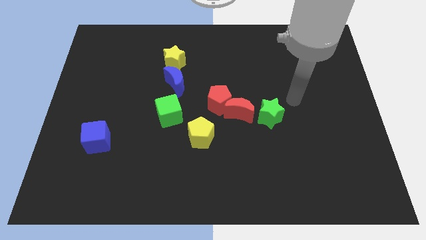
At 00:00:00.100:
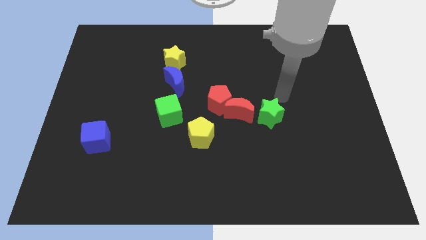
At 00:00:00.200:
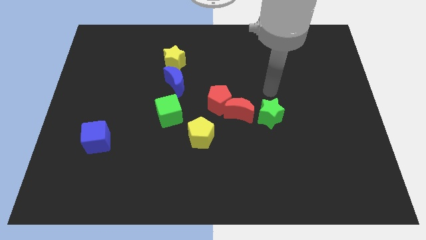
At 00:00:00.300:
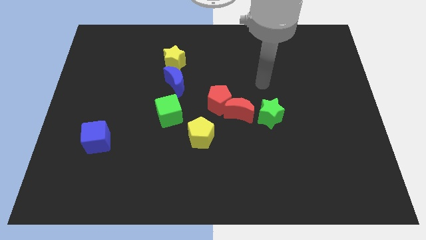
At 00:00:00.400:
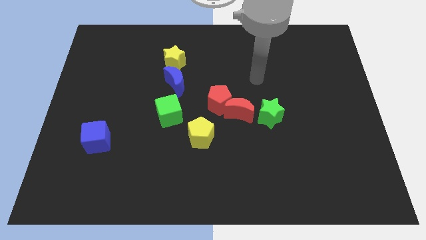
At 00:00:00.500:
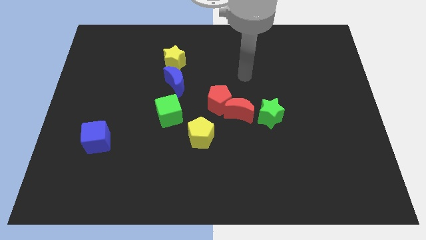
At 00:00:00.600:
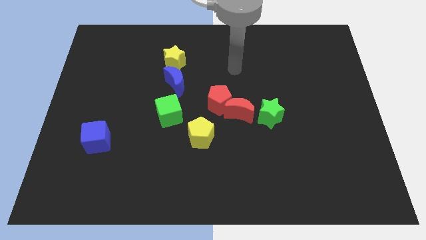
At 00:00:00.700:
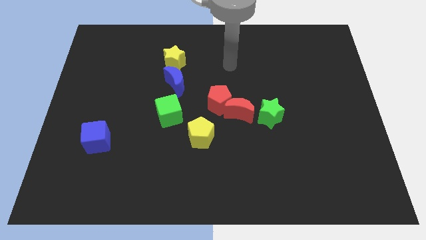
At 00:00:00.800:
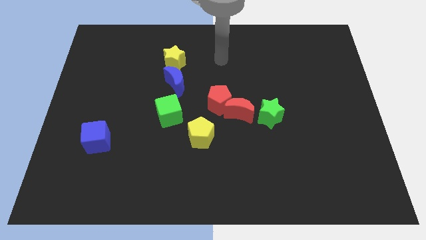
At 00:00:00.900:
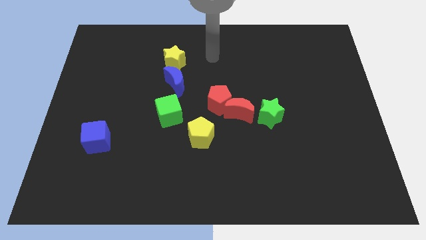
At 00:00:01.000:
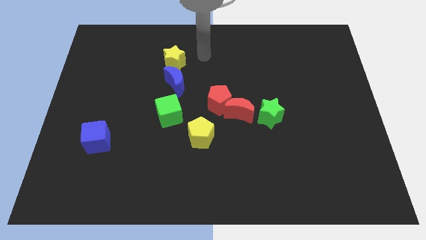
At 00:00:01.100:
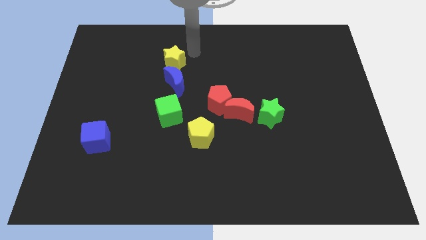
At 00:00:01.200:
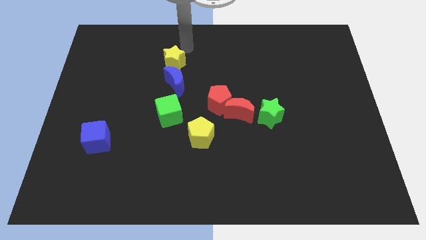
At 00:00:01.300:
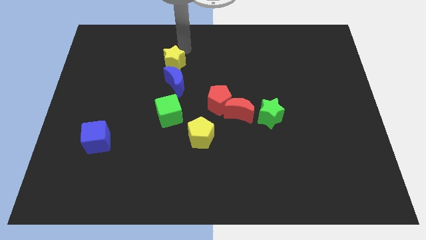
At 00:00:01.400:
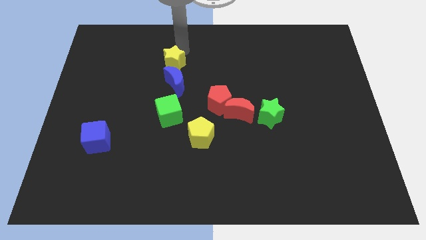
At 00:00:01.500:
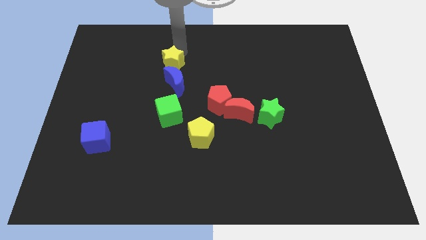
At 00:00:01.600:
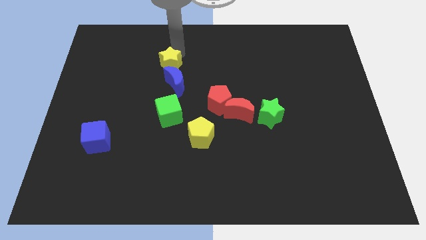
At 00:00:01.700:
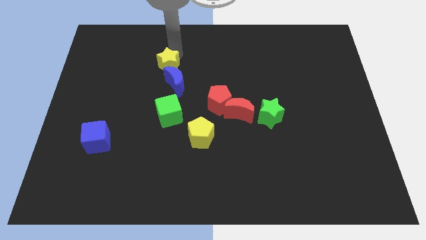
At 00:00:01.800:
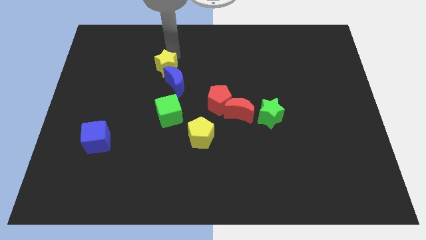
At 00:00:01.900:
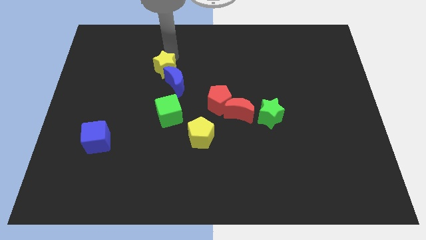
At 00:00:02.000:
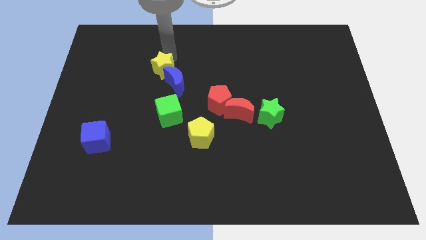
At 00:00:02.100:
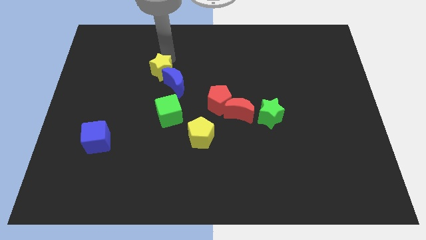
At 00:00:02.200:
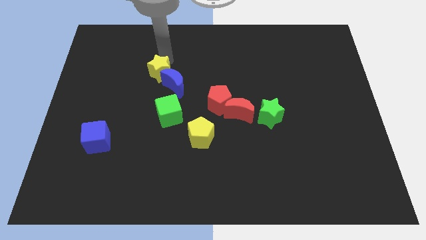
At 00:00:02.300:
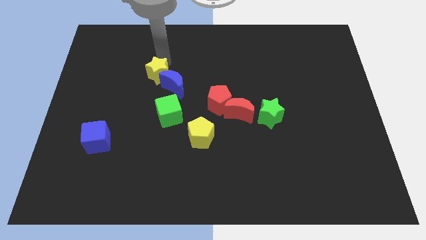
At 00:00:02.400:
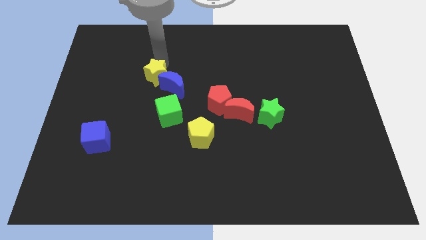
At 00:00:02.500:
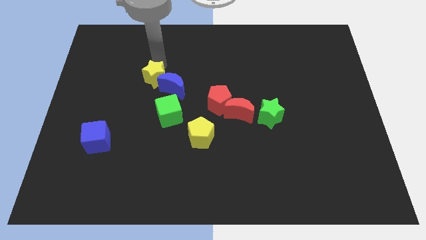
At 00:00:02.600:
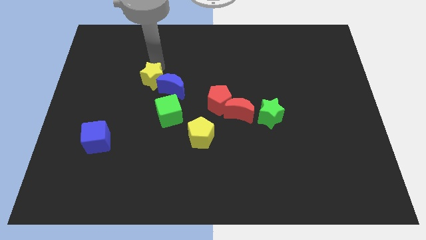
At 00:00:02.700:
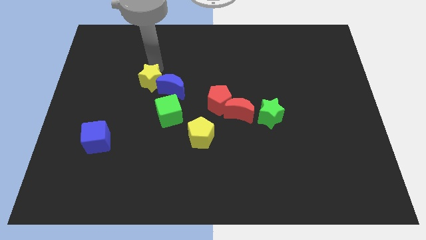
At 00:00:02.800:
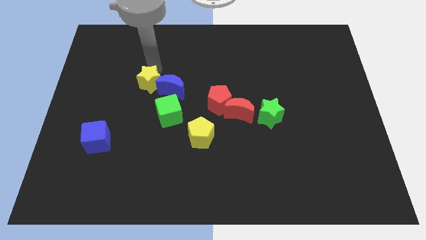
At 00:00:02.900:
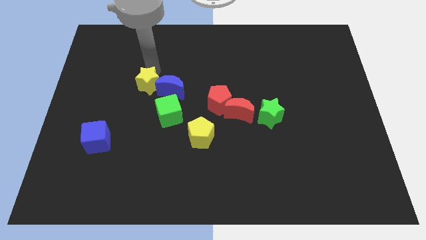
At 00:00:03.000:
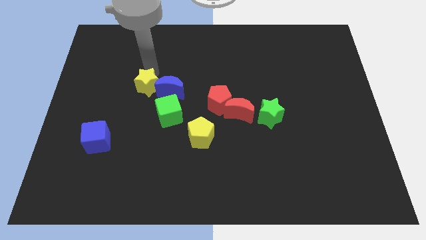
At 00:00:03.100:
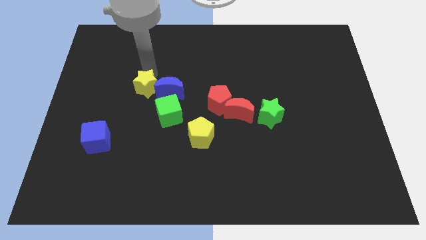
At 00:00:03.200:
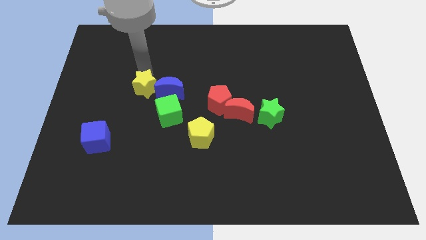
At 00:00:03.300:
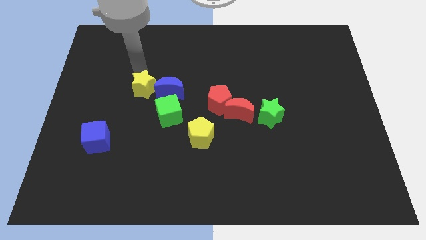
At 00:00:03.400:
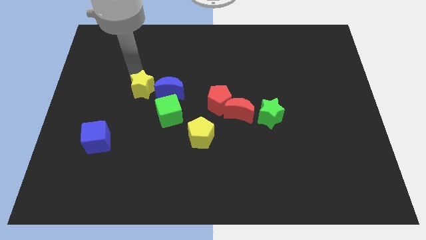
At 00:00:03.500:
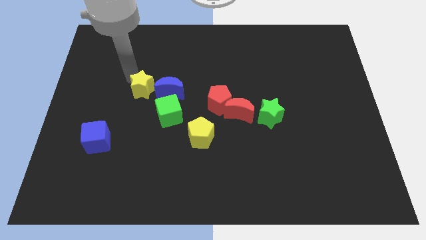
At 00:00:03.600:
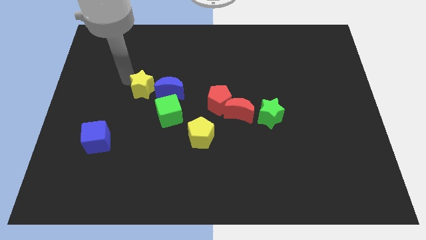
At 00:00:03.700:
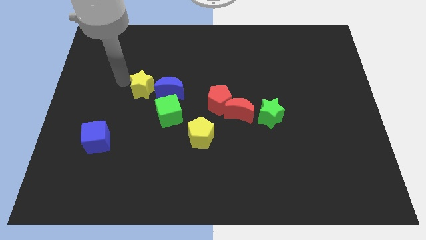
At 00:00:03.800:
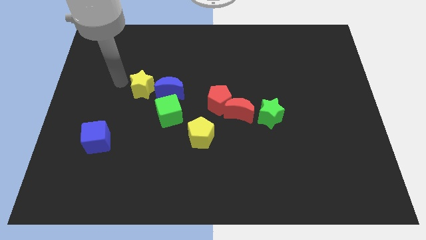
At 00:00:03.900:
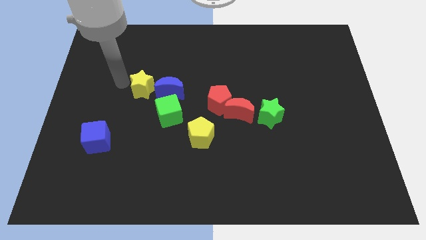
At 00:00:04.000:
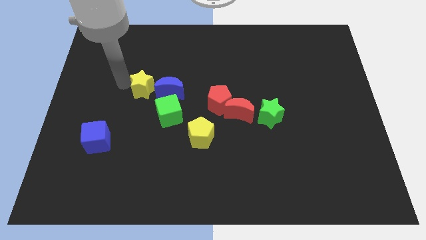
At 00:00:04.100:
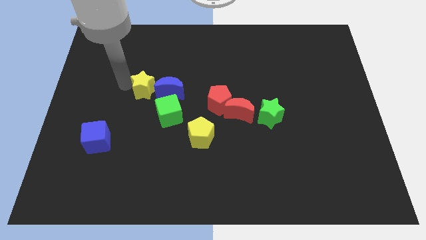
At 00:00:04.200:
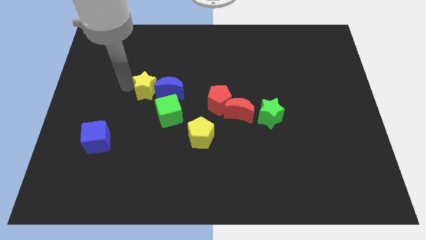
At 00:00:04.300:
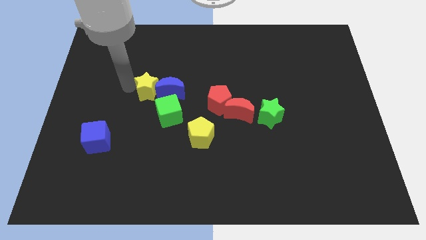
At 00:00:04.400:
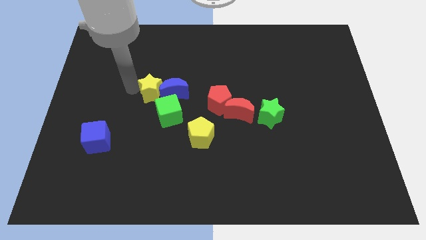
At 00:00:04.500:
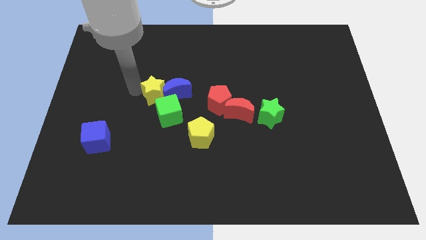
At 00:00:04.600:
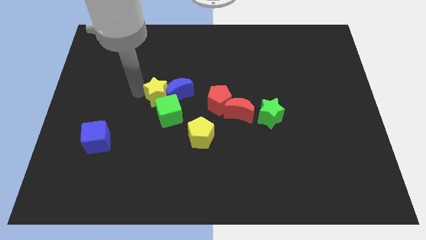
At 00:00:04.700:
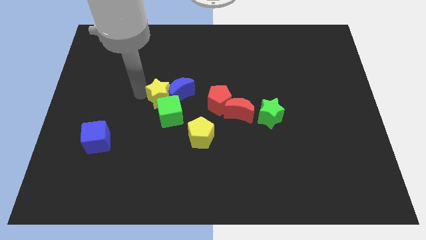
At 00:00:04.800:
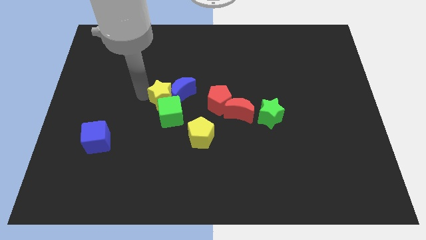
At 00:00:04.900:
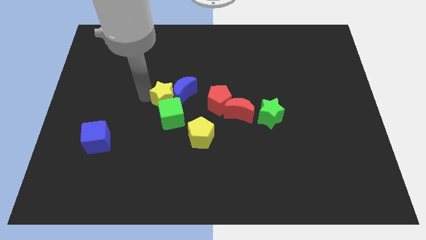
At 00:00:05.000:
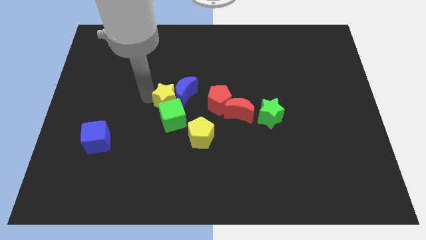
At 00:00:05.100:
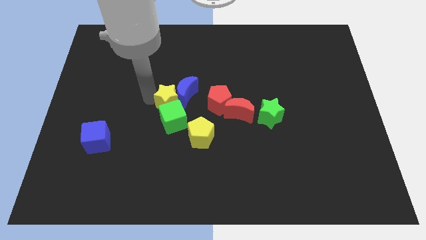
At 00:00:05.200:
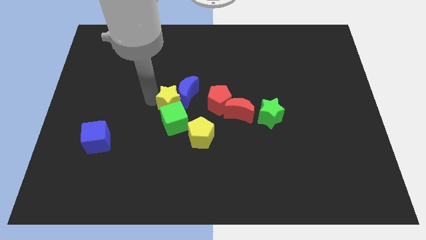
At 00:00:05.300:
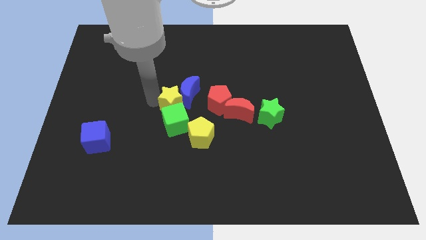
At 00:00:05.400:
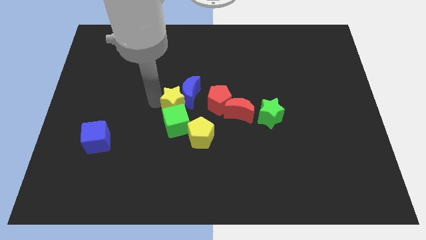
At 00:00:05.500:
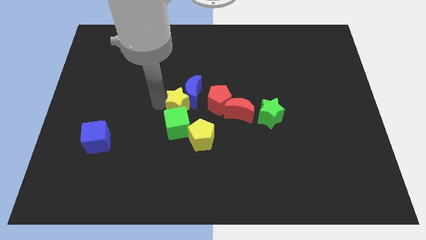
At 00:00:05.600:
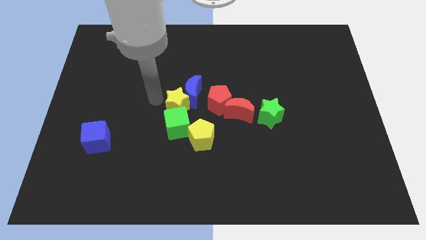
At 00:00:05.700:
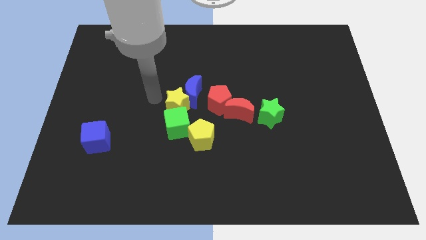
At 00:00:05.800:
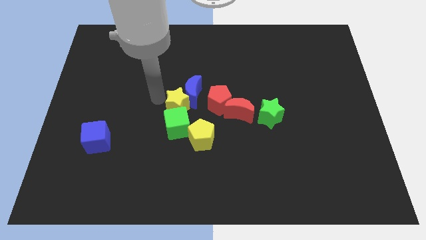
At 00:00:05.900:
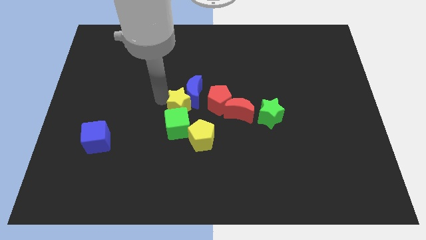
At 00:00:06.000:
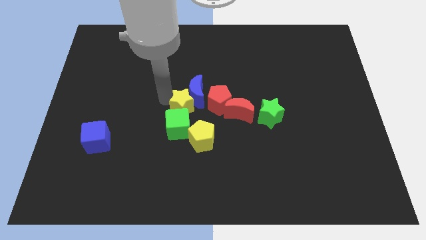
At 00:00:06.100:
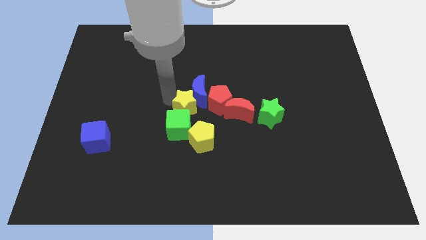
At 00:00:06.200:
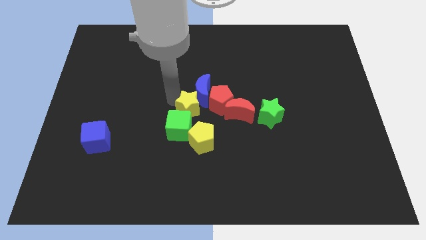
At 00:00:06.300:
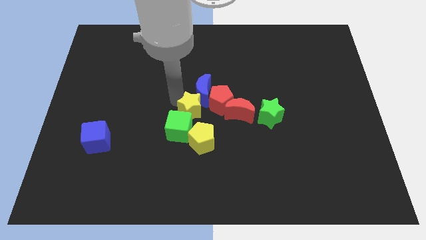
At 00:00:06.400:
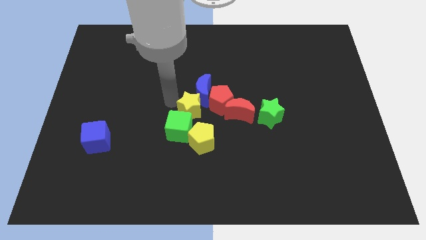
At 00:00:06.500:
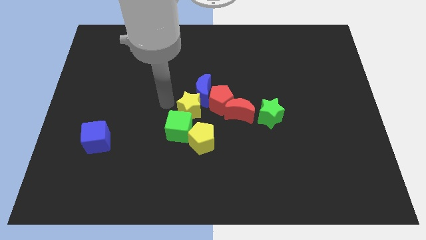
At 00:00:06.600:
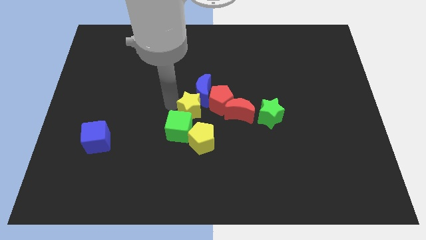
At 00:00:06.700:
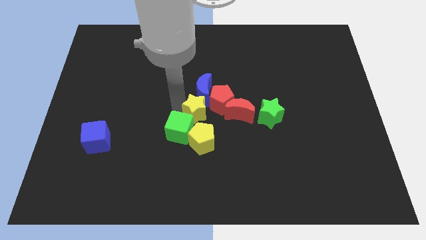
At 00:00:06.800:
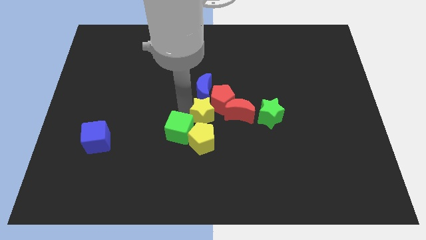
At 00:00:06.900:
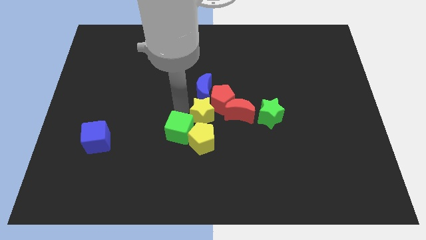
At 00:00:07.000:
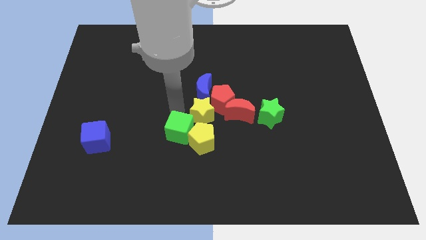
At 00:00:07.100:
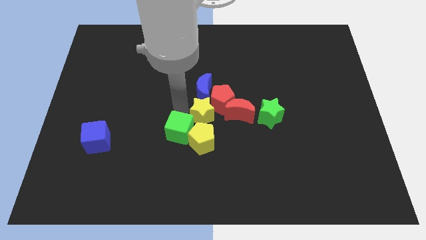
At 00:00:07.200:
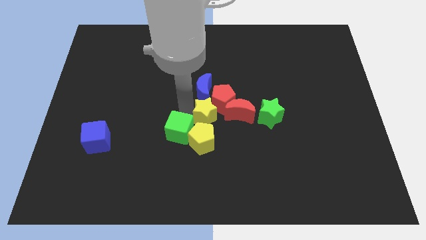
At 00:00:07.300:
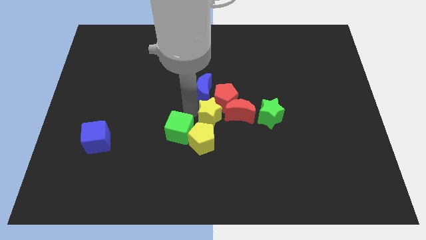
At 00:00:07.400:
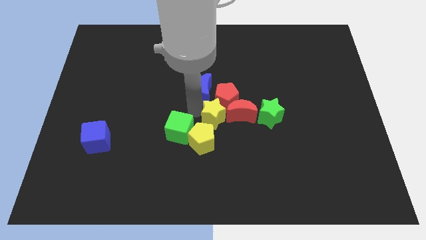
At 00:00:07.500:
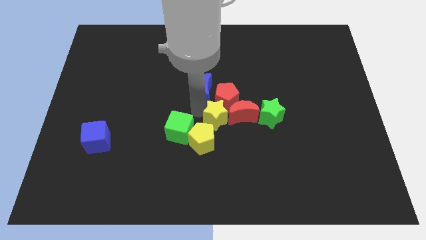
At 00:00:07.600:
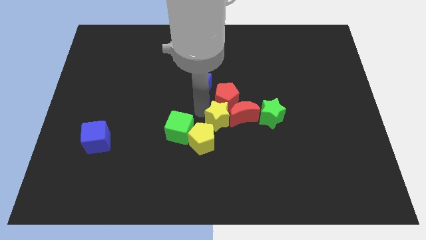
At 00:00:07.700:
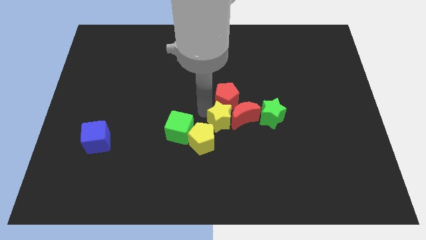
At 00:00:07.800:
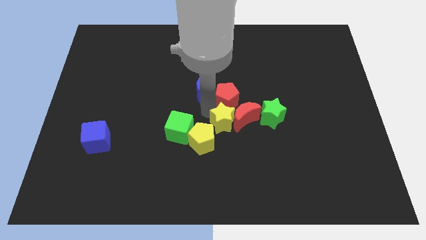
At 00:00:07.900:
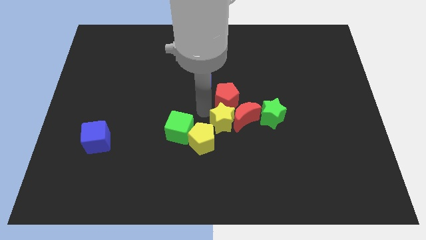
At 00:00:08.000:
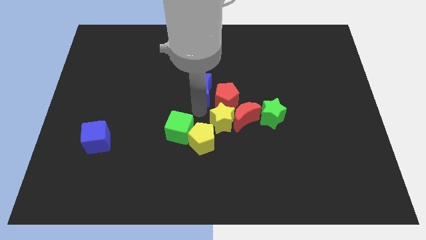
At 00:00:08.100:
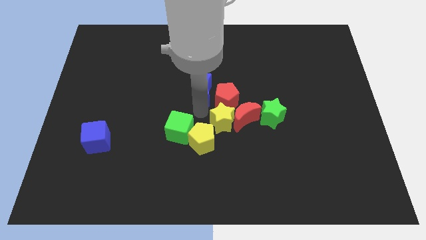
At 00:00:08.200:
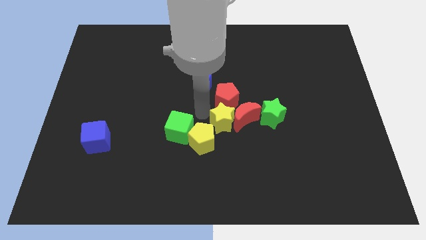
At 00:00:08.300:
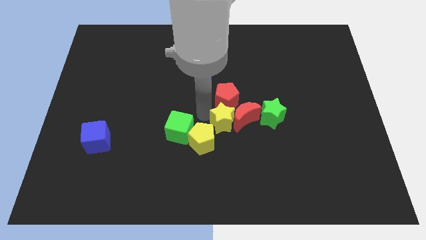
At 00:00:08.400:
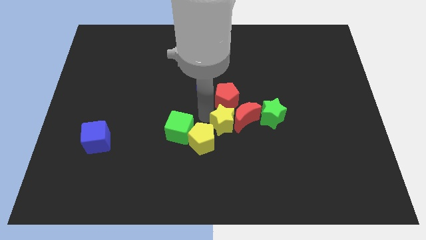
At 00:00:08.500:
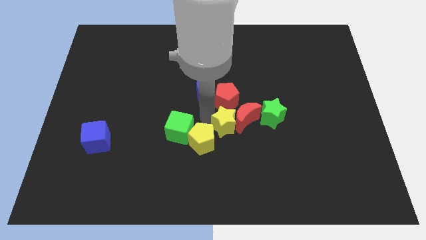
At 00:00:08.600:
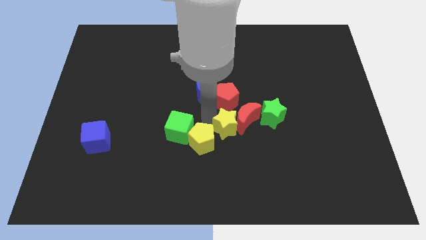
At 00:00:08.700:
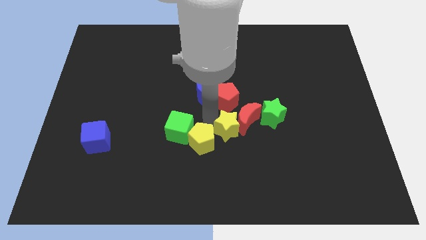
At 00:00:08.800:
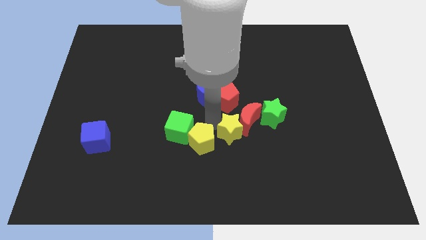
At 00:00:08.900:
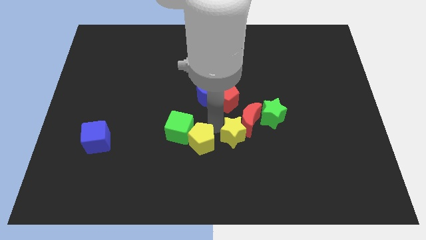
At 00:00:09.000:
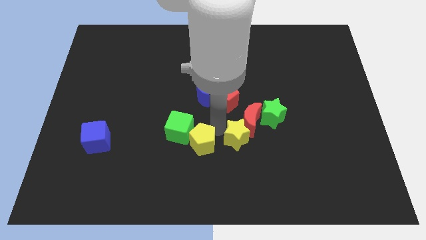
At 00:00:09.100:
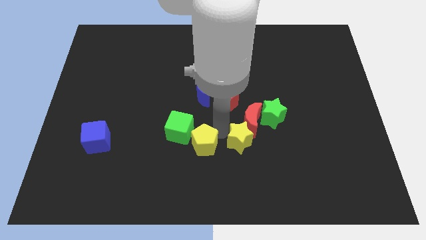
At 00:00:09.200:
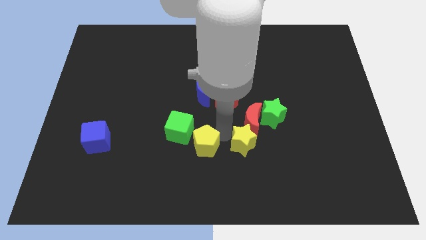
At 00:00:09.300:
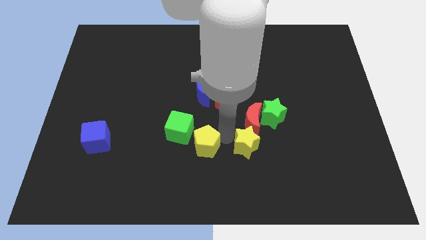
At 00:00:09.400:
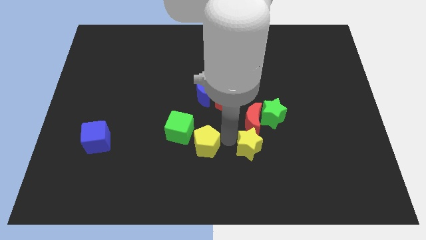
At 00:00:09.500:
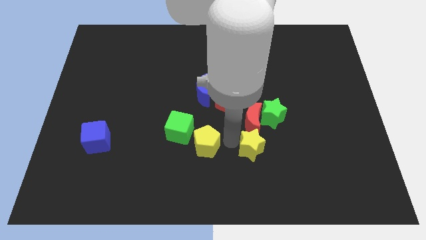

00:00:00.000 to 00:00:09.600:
put the yellow star to the bottom right side of the red moon
